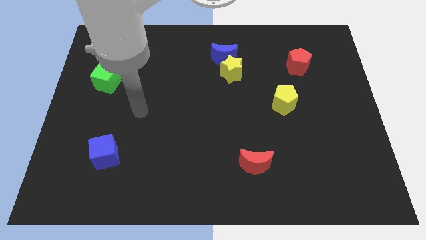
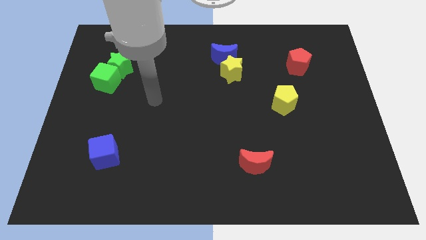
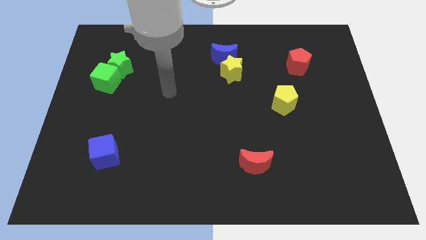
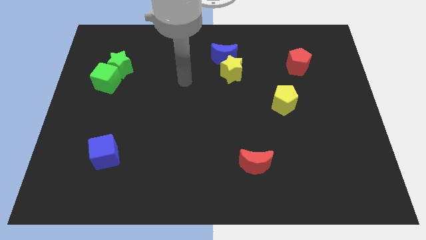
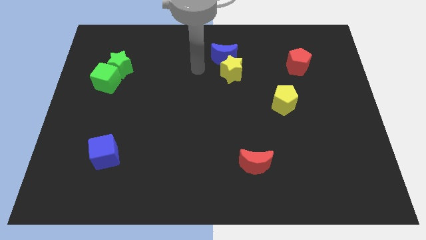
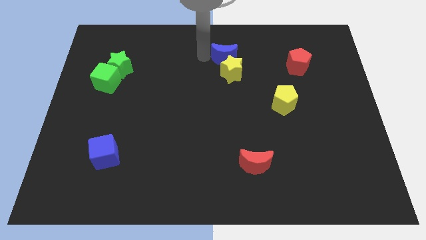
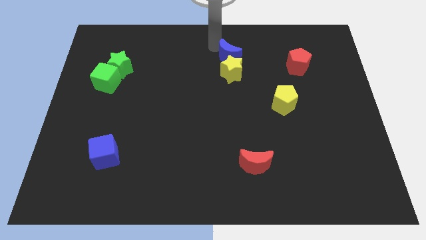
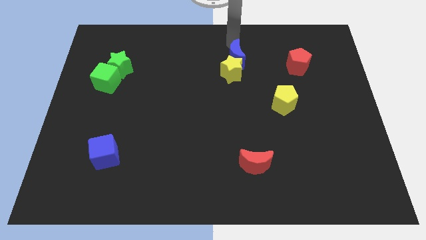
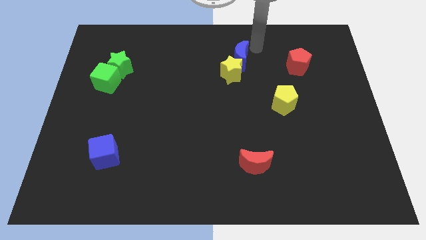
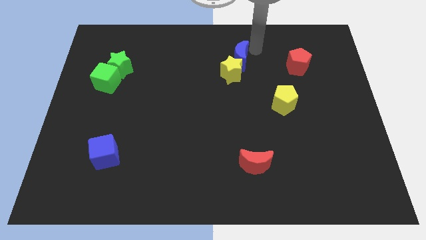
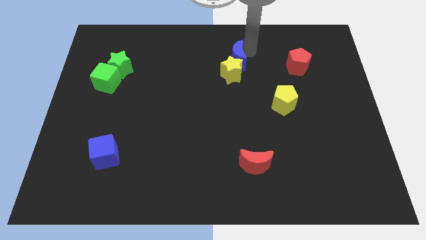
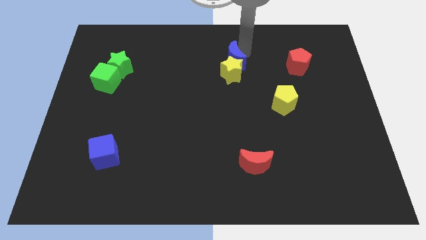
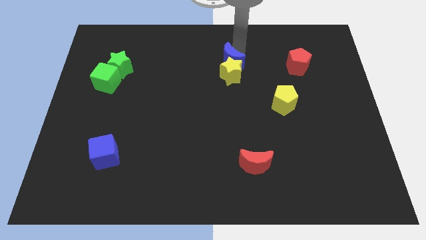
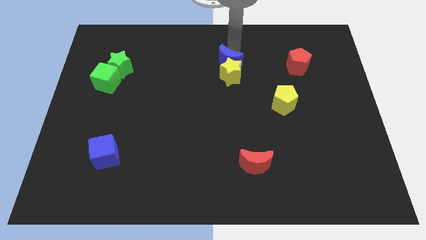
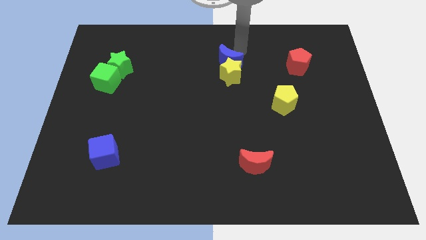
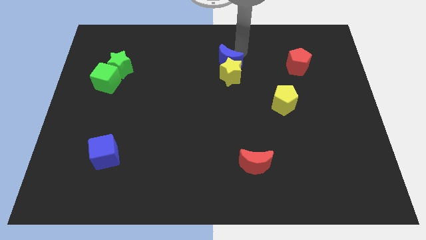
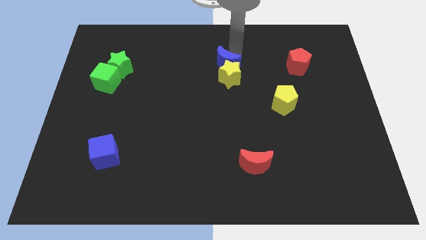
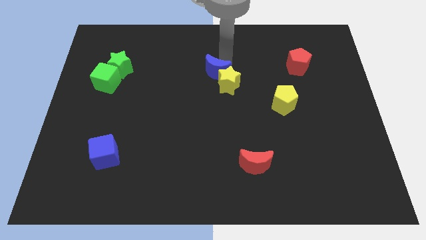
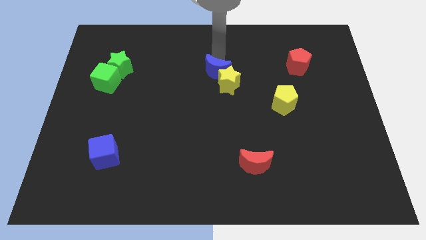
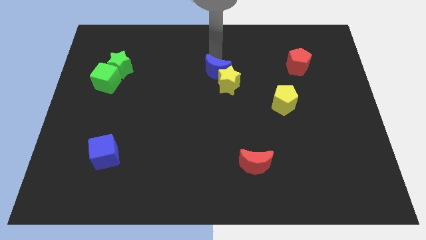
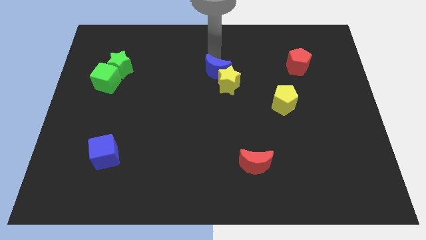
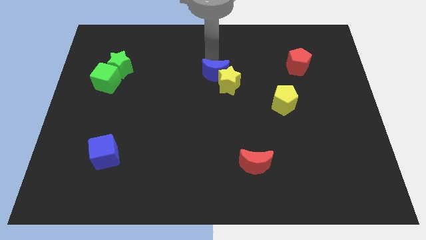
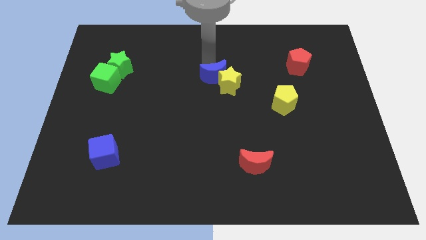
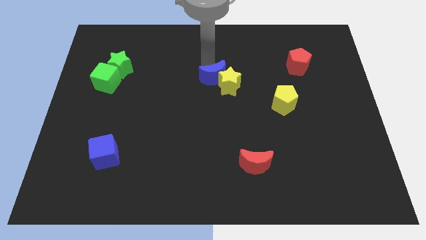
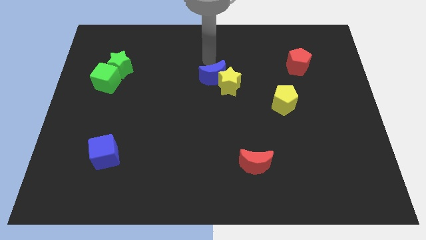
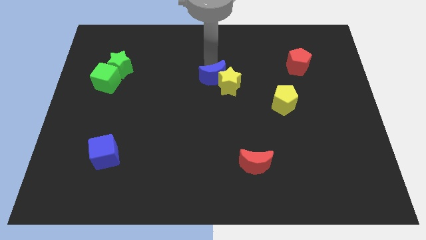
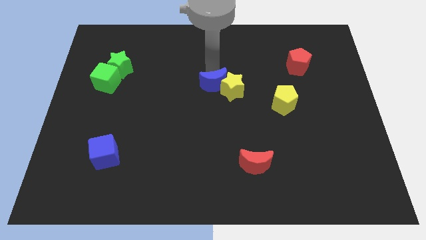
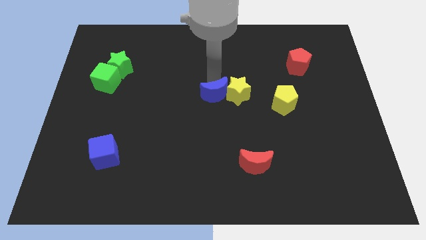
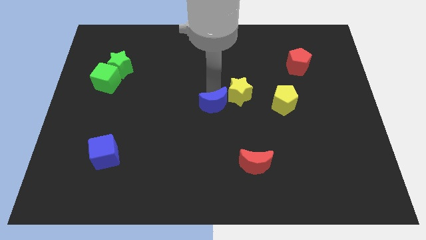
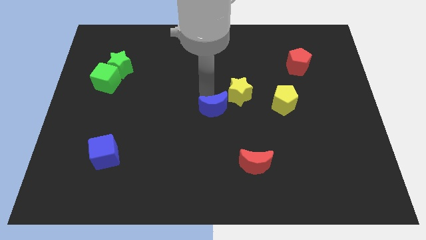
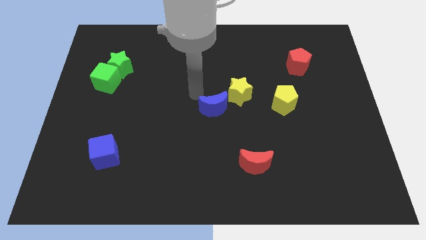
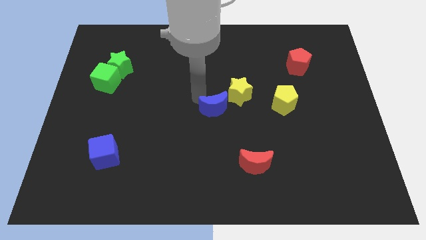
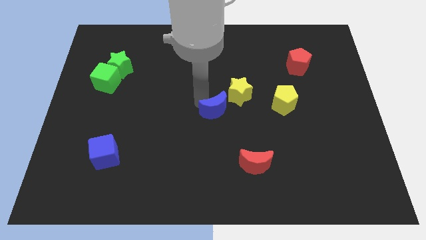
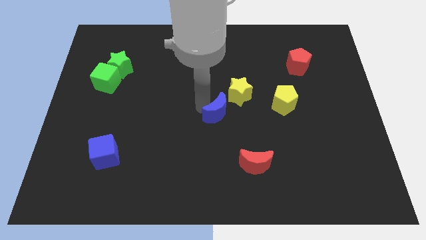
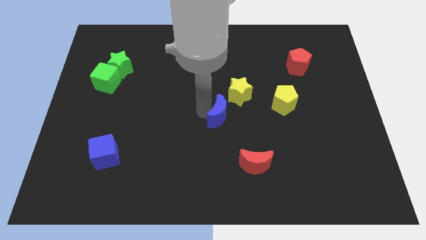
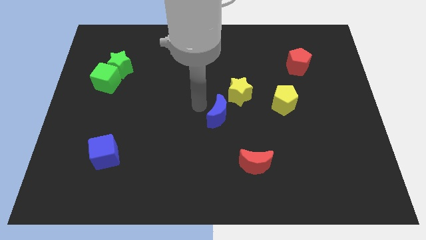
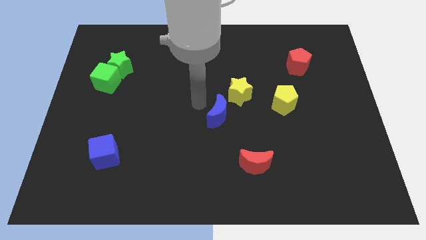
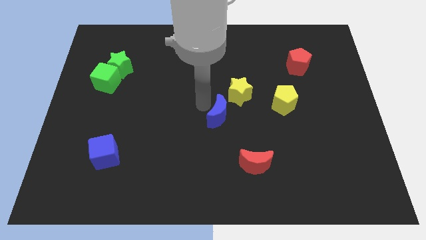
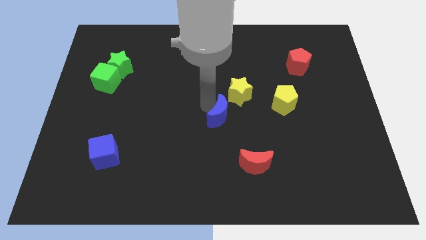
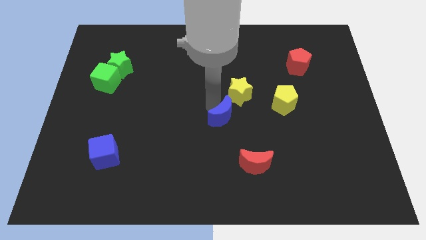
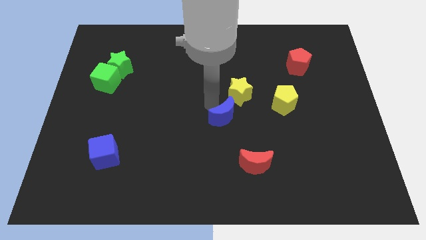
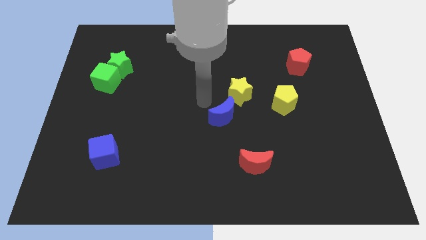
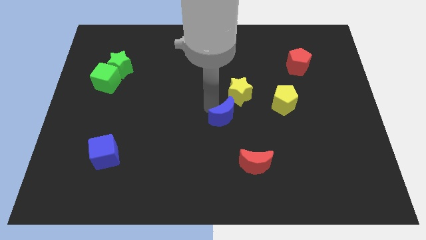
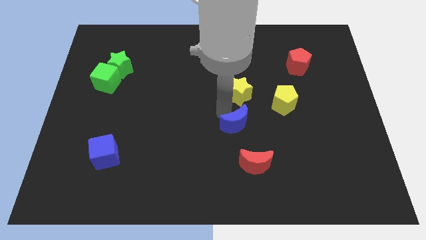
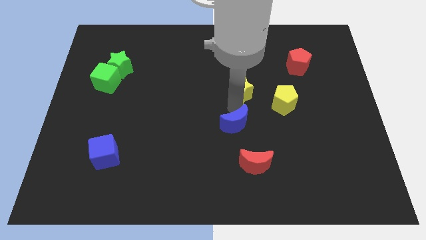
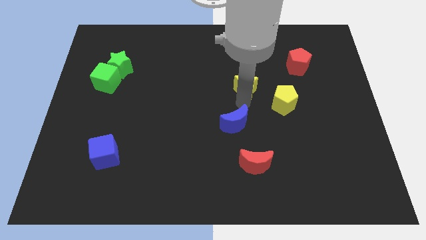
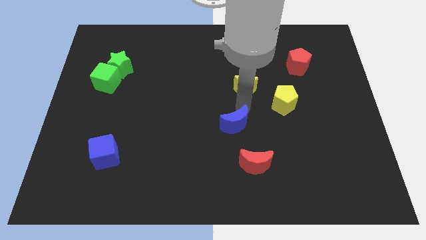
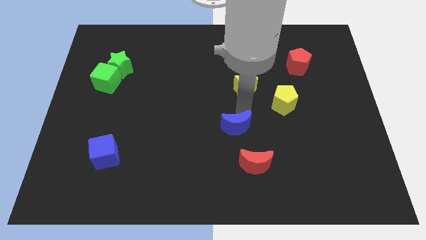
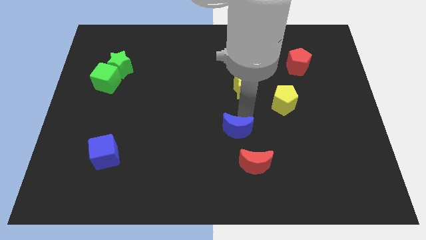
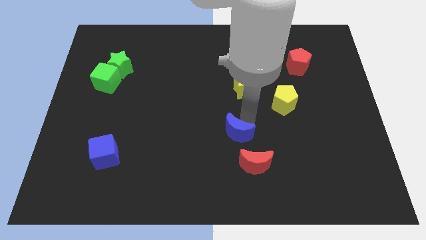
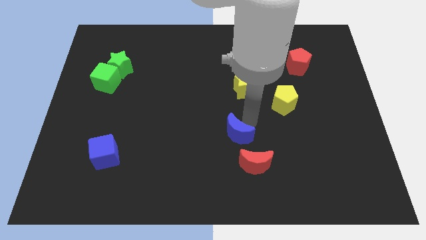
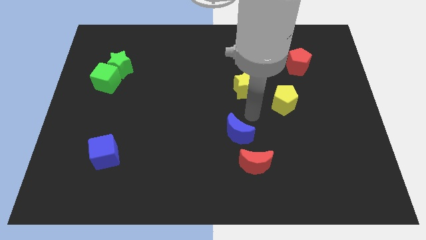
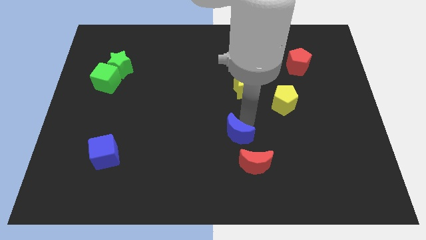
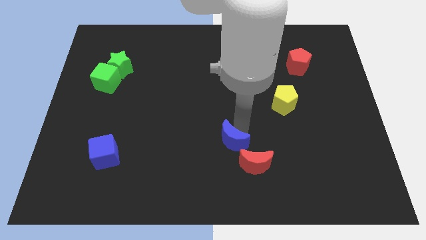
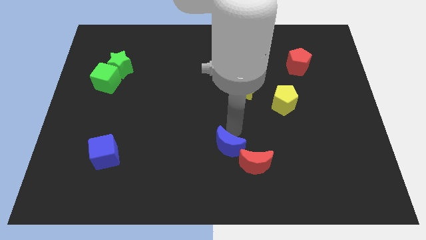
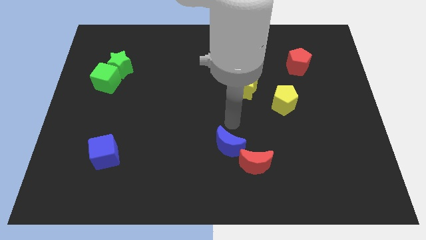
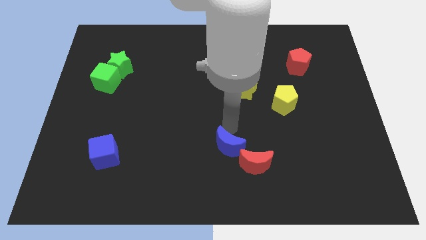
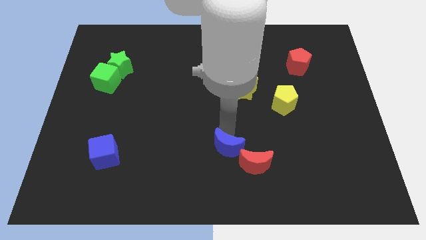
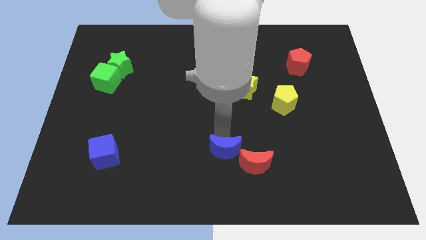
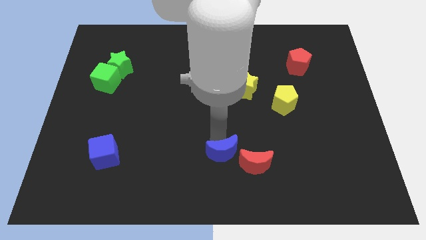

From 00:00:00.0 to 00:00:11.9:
put the blue moon to the bottom side

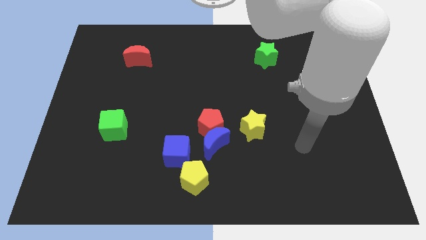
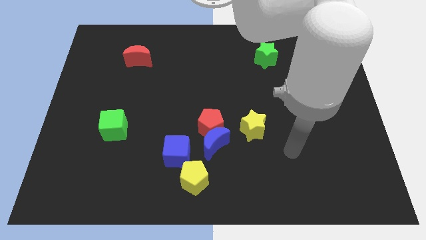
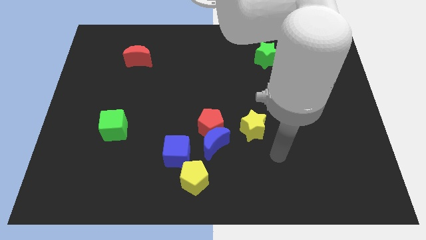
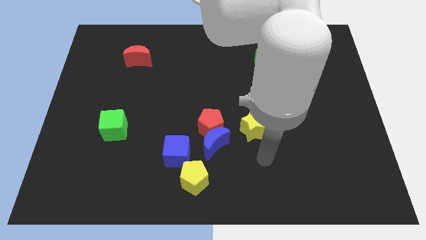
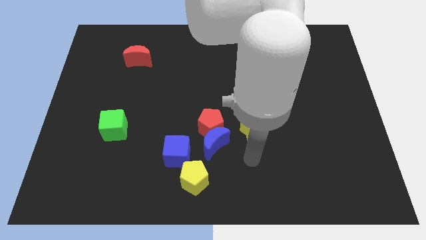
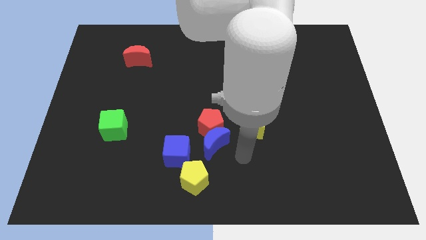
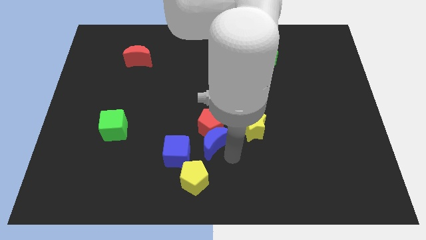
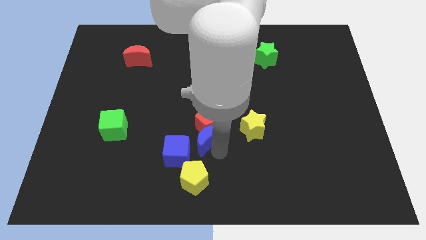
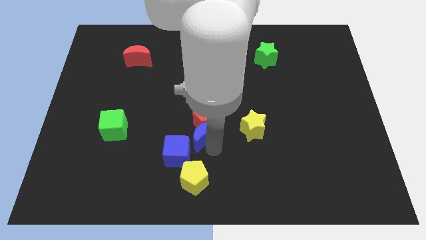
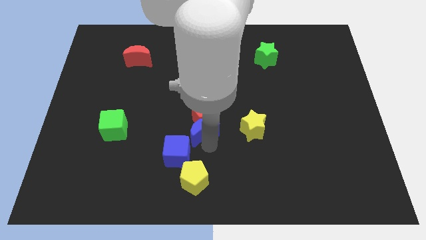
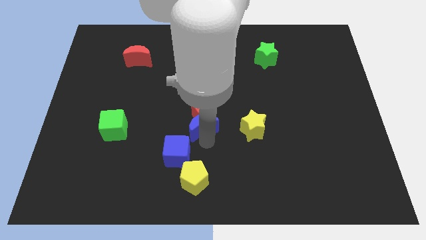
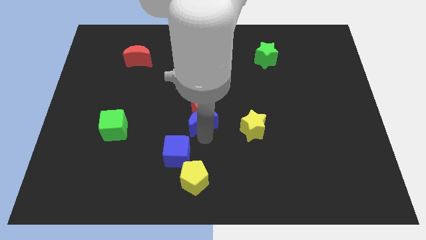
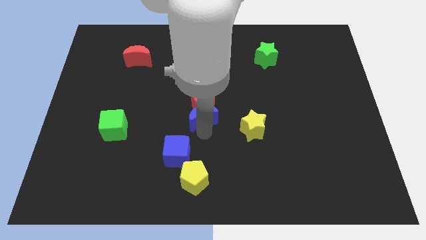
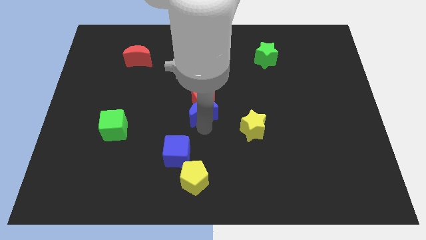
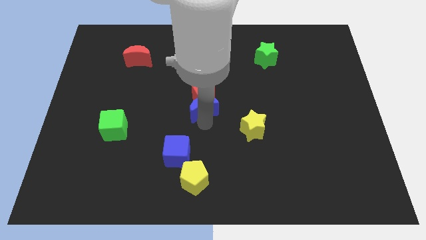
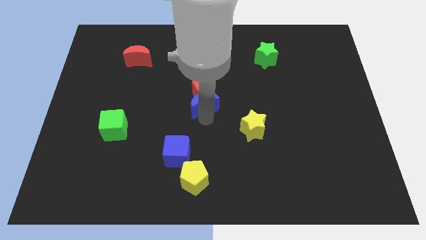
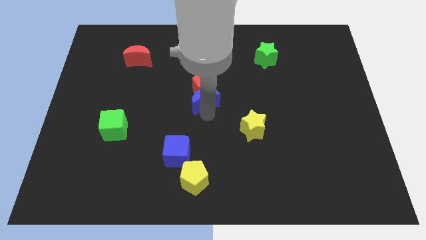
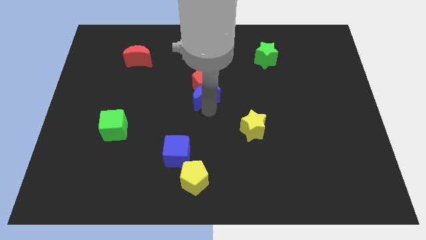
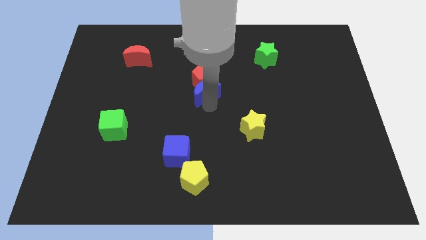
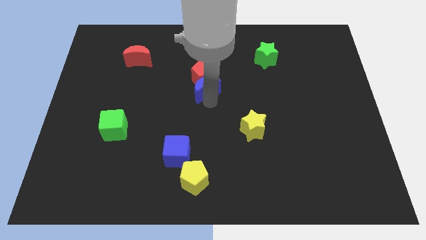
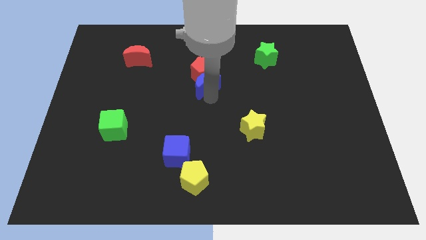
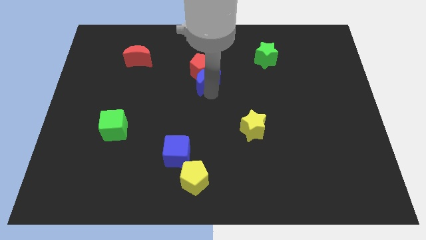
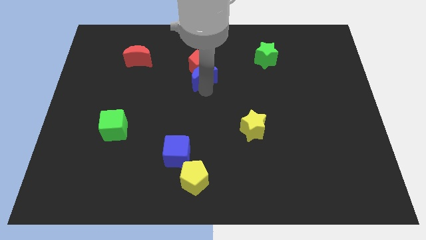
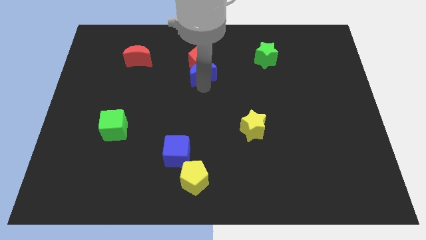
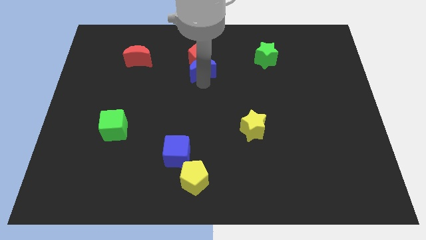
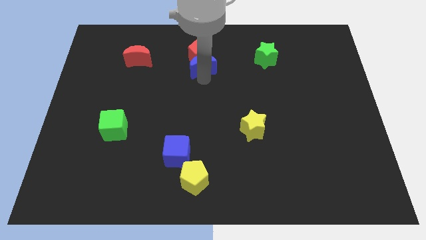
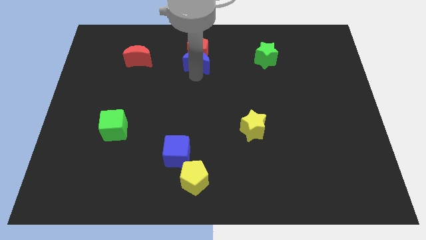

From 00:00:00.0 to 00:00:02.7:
push the red pentagon to the towards your base
